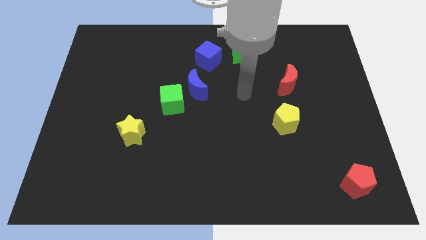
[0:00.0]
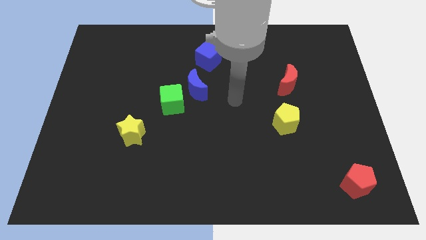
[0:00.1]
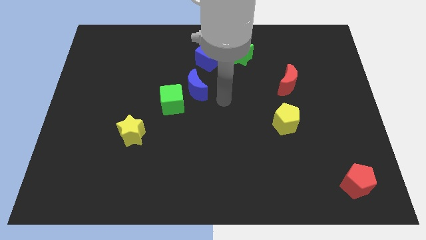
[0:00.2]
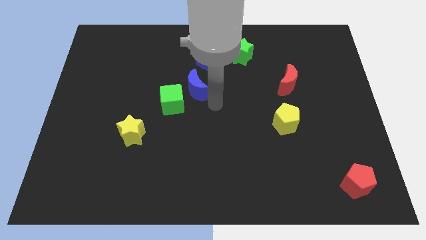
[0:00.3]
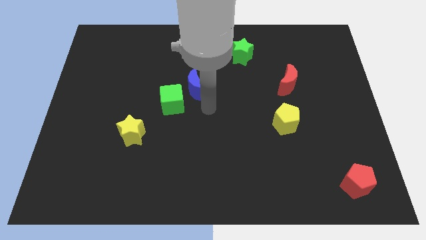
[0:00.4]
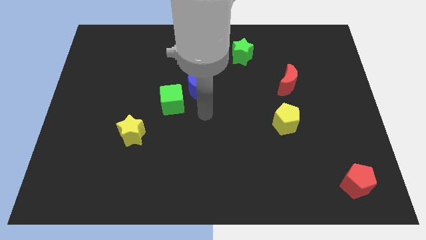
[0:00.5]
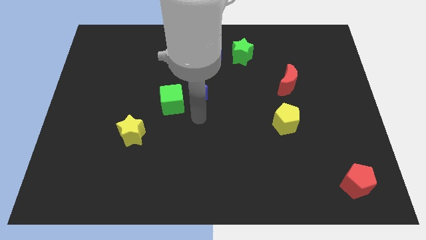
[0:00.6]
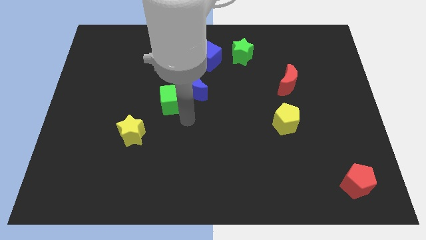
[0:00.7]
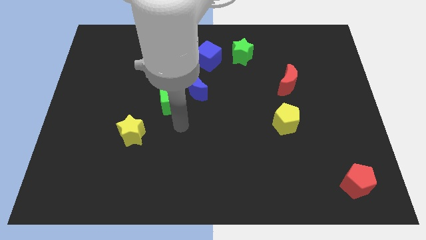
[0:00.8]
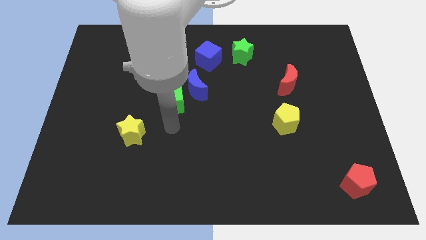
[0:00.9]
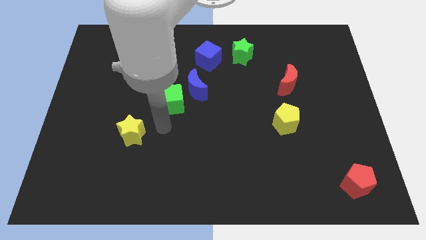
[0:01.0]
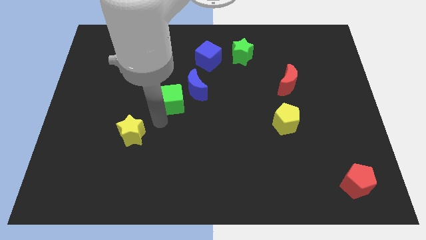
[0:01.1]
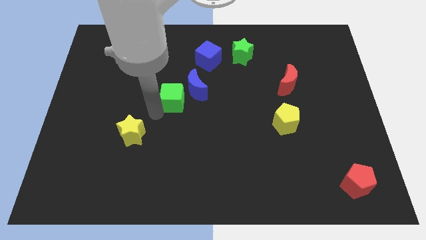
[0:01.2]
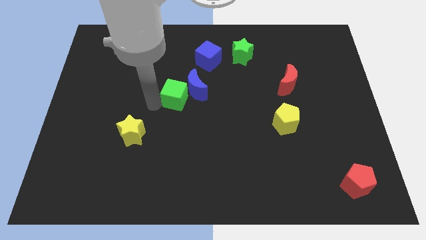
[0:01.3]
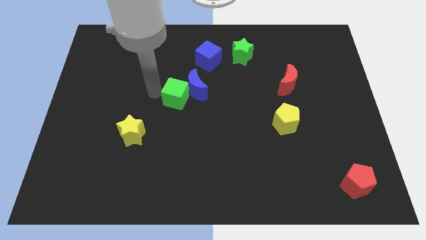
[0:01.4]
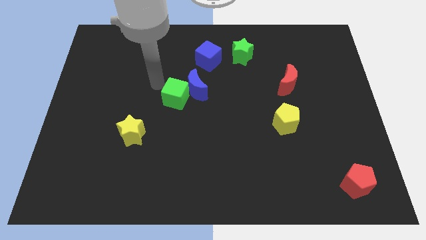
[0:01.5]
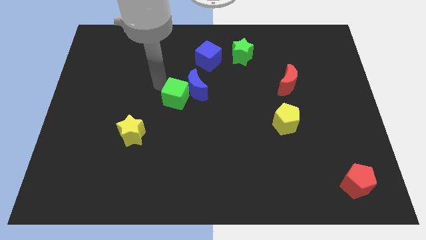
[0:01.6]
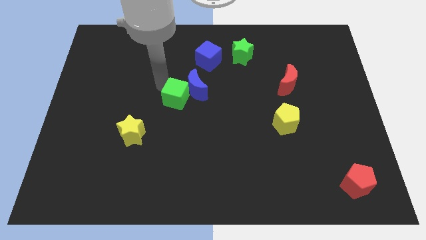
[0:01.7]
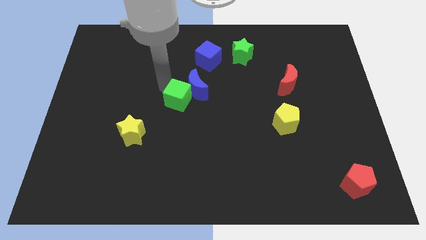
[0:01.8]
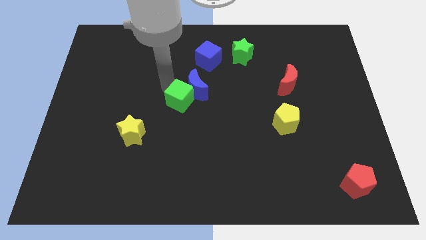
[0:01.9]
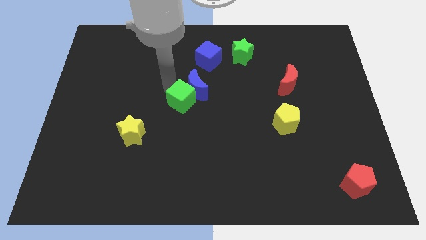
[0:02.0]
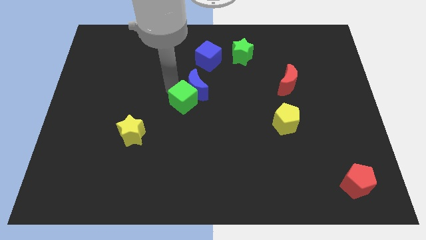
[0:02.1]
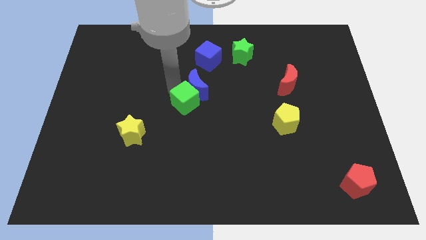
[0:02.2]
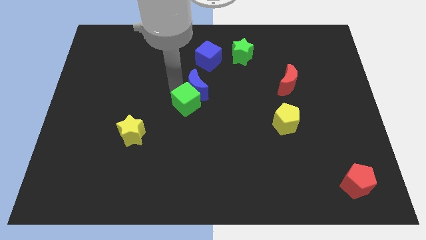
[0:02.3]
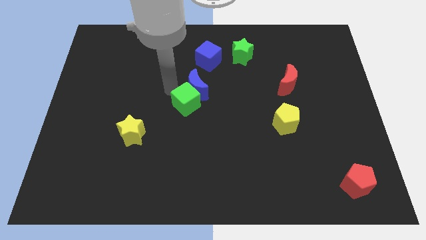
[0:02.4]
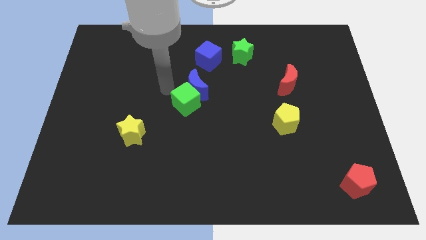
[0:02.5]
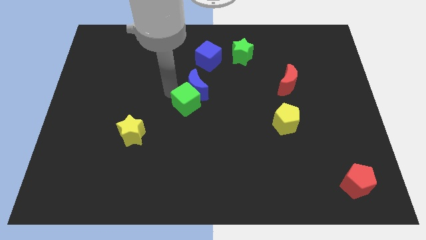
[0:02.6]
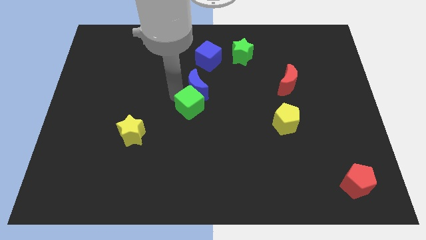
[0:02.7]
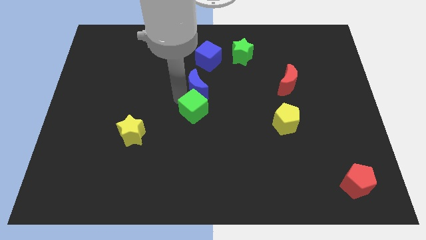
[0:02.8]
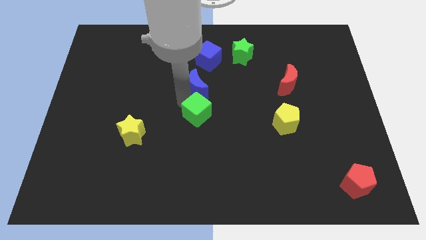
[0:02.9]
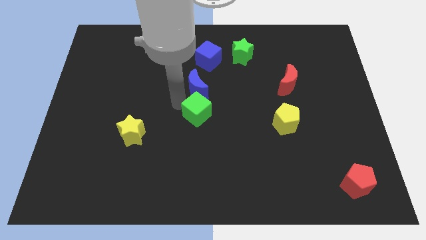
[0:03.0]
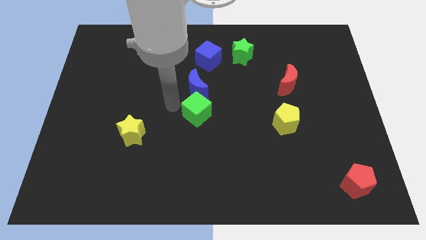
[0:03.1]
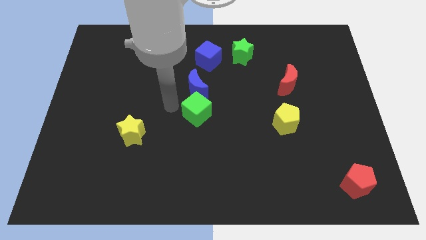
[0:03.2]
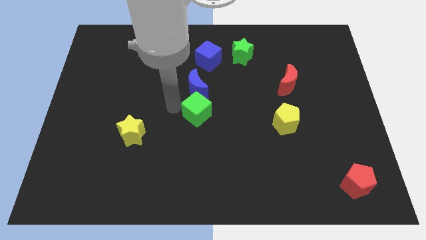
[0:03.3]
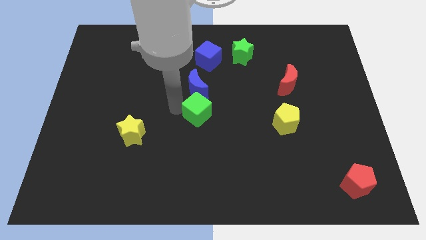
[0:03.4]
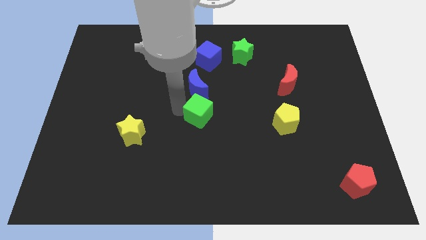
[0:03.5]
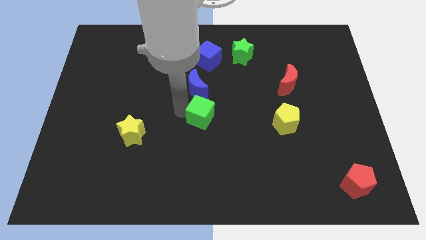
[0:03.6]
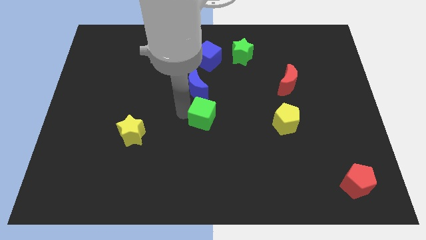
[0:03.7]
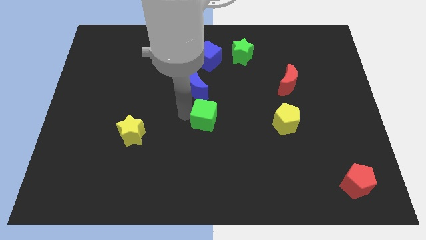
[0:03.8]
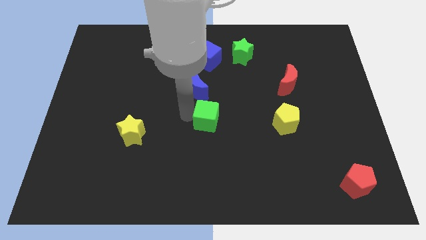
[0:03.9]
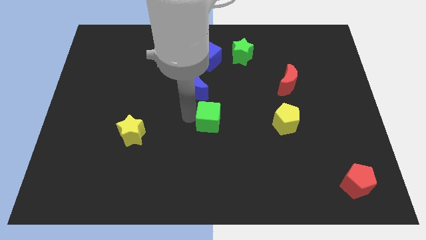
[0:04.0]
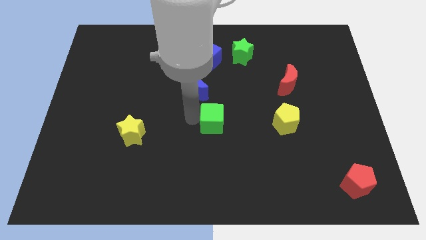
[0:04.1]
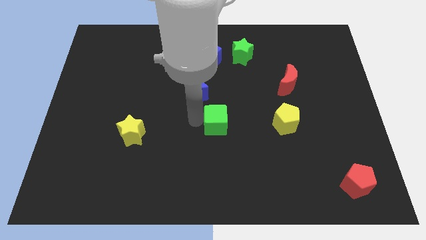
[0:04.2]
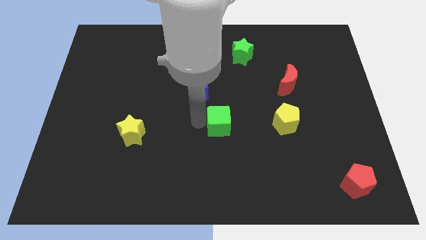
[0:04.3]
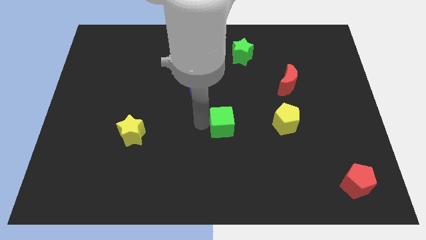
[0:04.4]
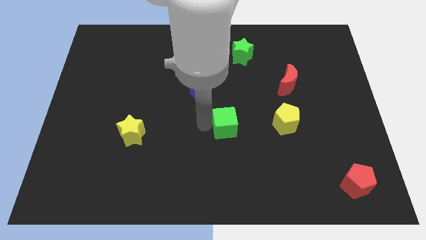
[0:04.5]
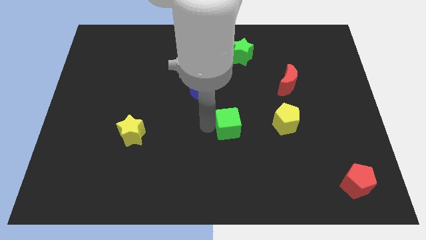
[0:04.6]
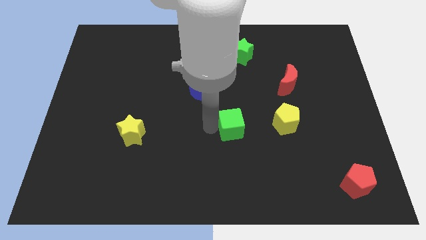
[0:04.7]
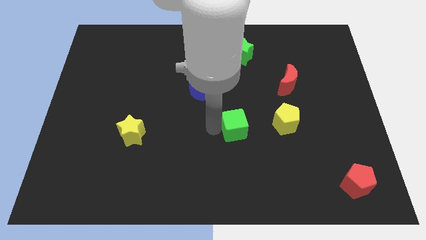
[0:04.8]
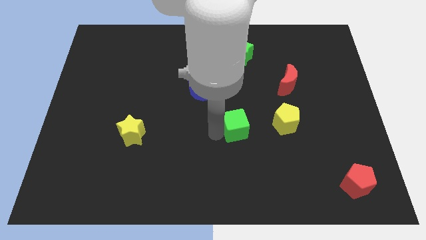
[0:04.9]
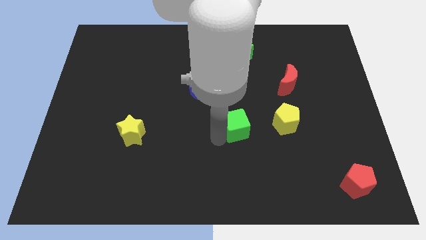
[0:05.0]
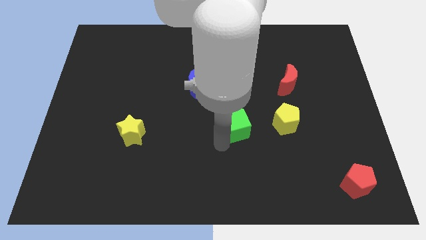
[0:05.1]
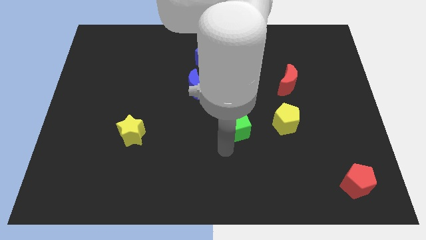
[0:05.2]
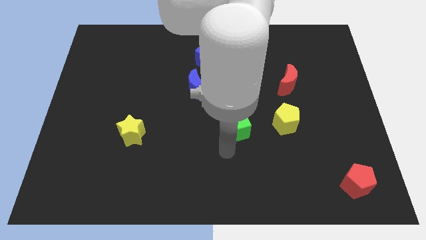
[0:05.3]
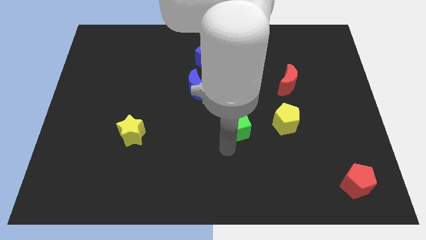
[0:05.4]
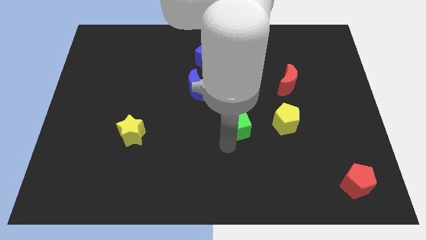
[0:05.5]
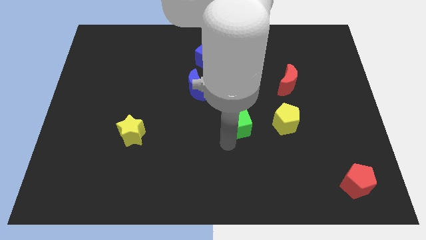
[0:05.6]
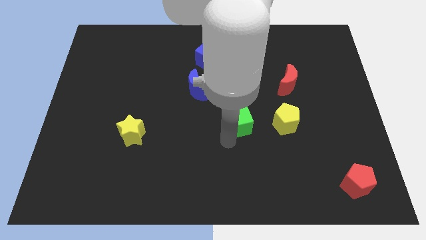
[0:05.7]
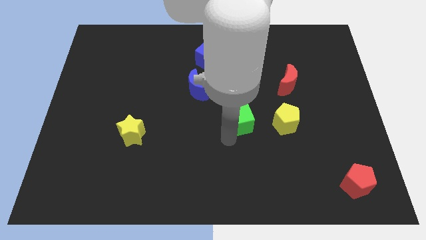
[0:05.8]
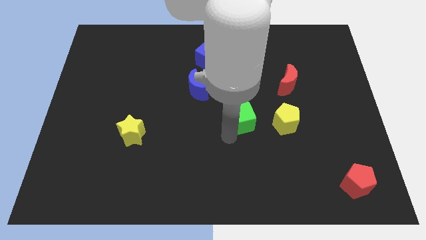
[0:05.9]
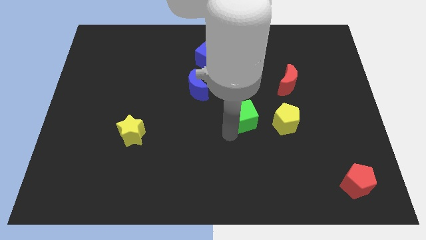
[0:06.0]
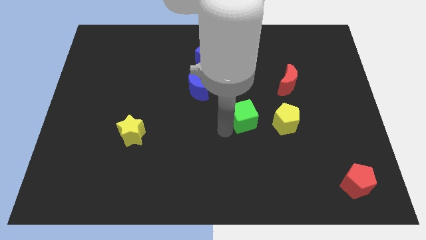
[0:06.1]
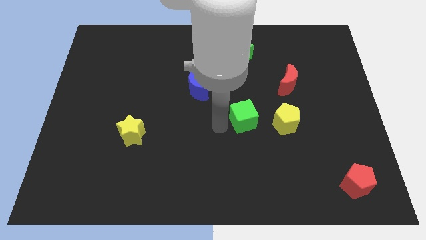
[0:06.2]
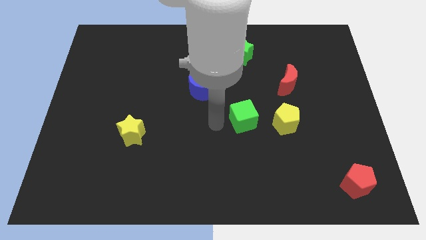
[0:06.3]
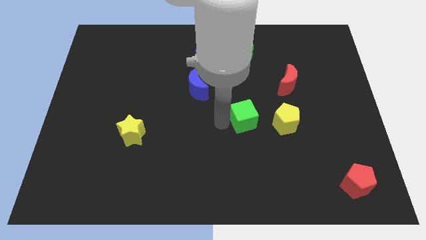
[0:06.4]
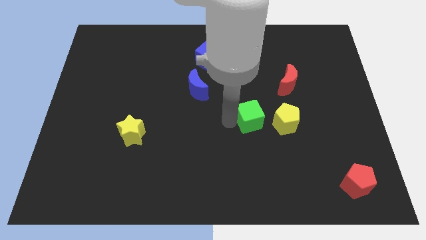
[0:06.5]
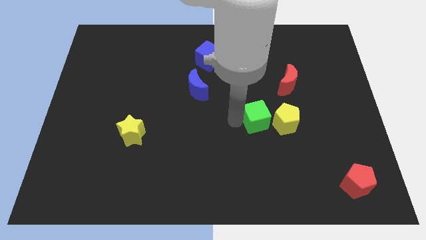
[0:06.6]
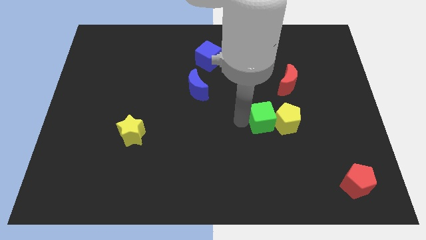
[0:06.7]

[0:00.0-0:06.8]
push the green cube towards the yellow pentagon
